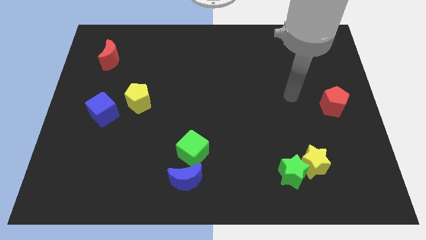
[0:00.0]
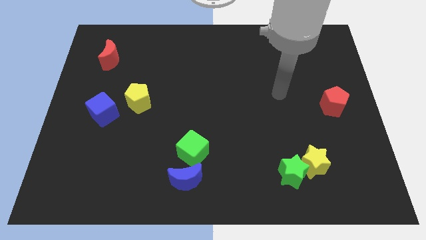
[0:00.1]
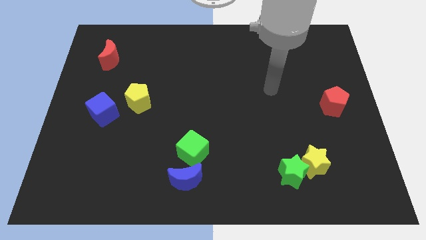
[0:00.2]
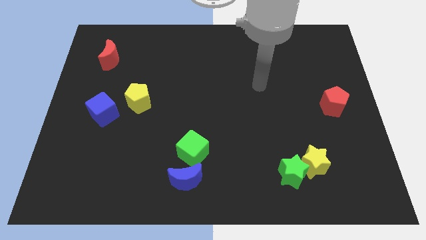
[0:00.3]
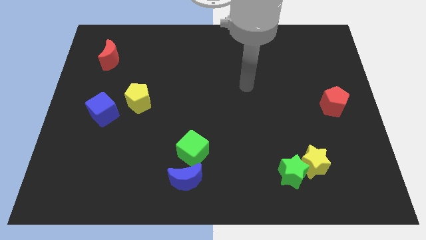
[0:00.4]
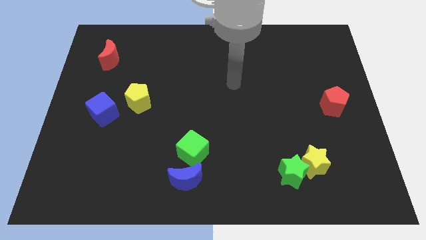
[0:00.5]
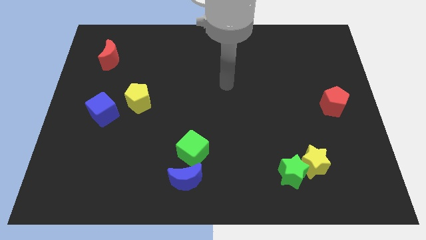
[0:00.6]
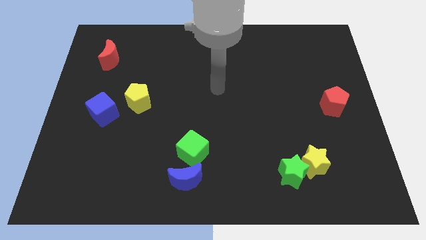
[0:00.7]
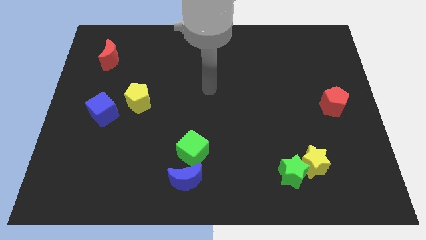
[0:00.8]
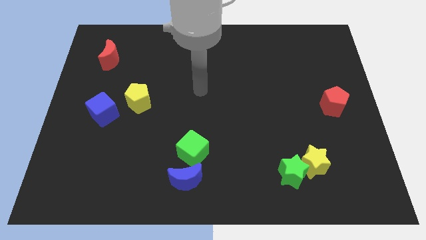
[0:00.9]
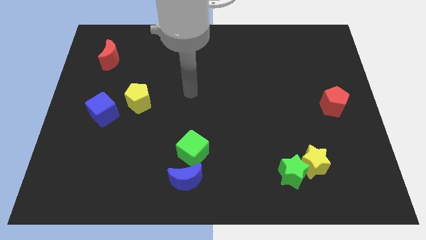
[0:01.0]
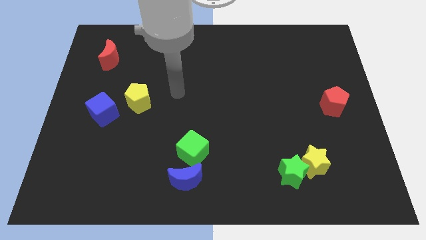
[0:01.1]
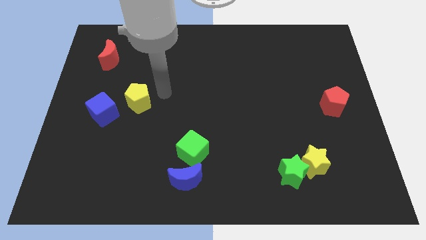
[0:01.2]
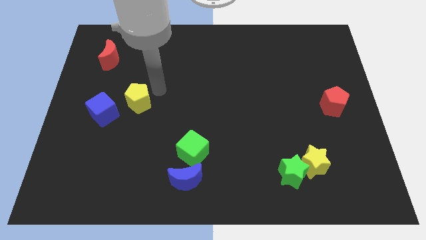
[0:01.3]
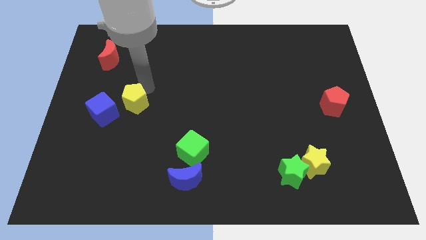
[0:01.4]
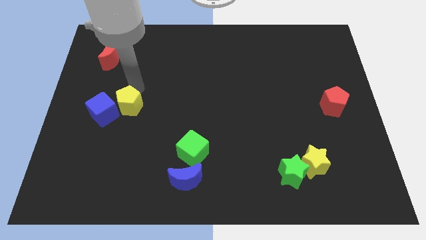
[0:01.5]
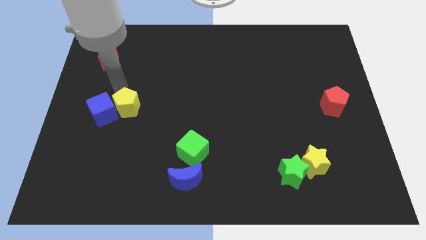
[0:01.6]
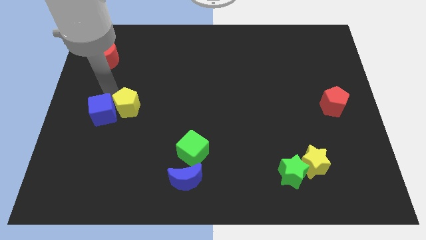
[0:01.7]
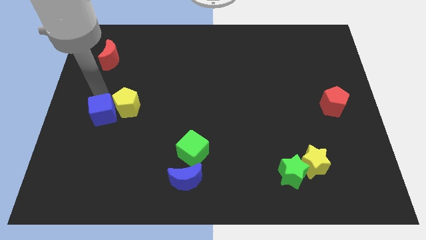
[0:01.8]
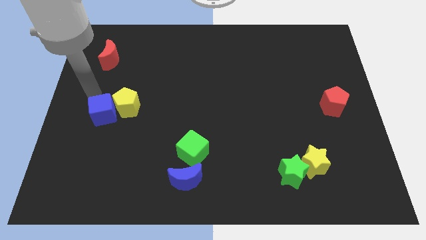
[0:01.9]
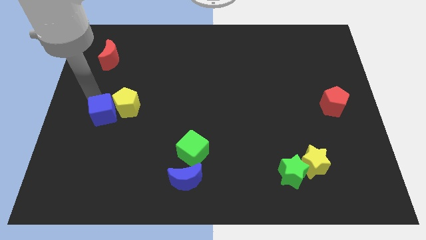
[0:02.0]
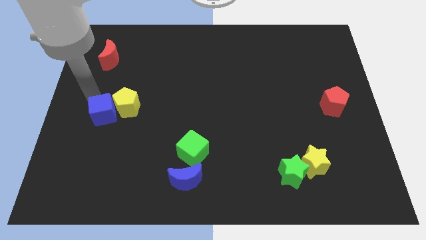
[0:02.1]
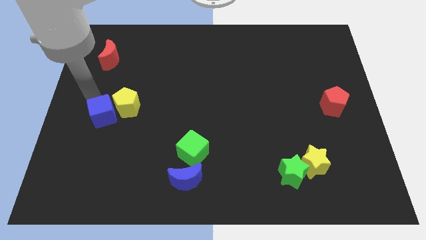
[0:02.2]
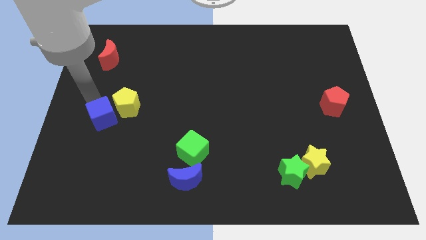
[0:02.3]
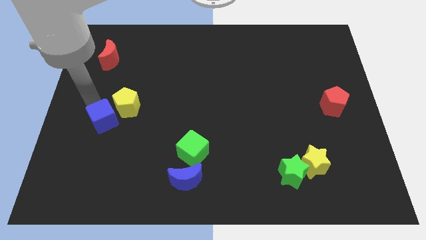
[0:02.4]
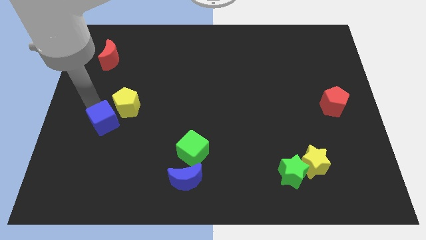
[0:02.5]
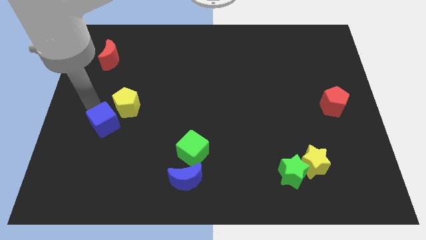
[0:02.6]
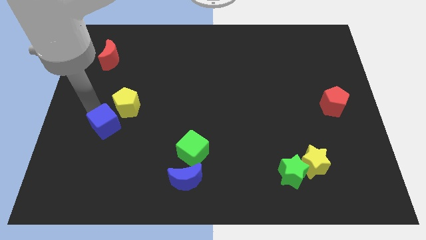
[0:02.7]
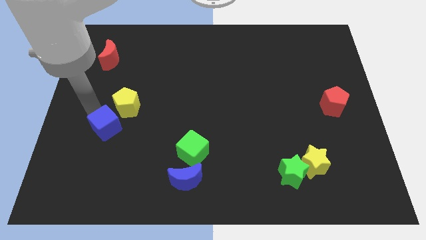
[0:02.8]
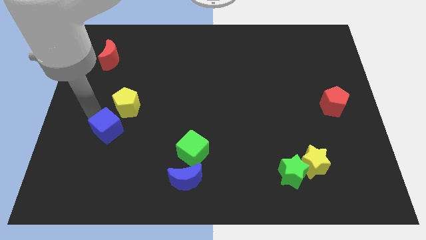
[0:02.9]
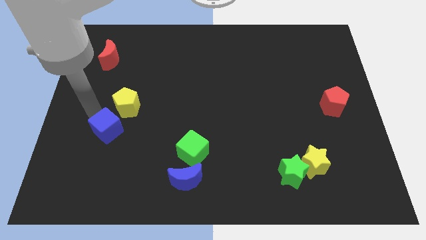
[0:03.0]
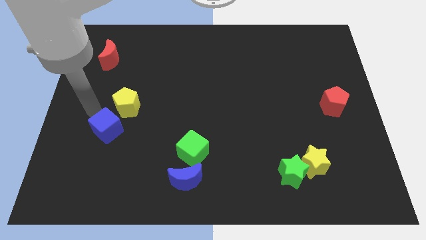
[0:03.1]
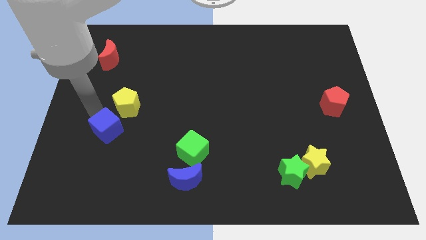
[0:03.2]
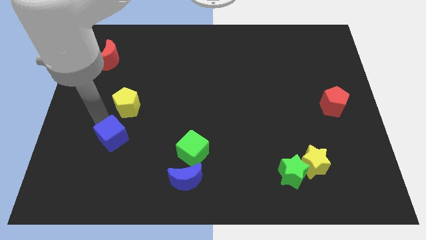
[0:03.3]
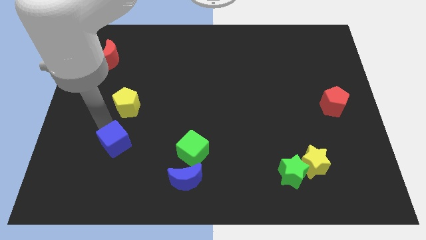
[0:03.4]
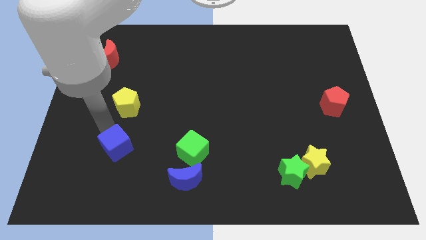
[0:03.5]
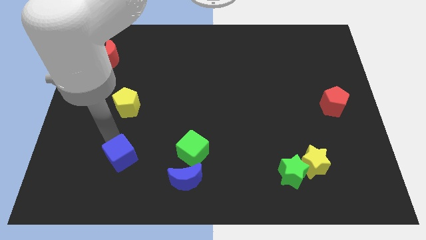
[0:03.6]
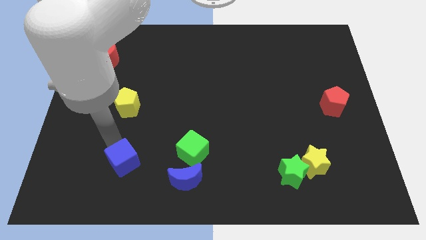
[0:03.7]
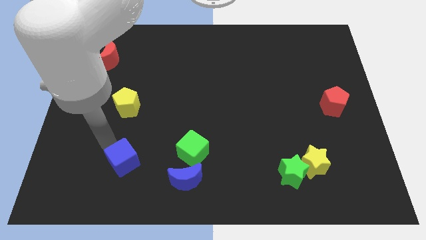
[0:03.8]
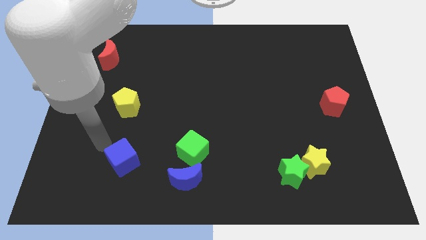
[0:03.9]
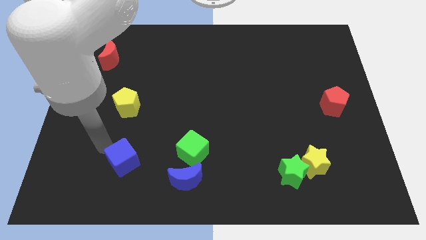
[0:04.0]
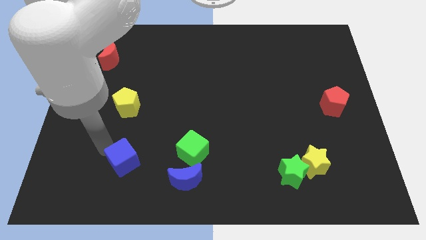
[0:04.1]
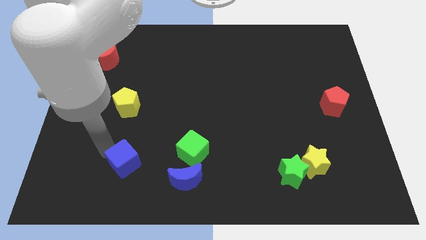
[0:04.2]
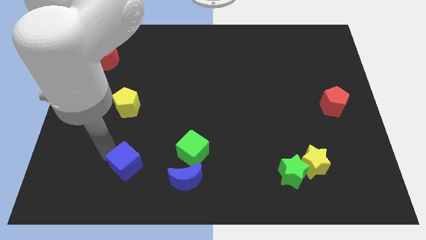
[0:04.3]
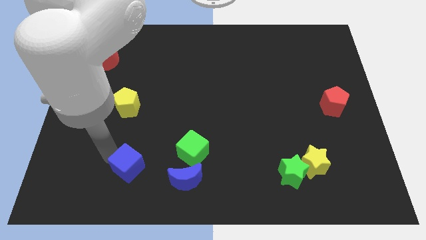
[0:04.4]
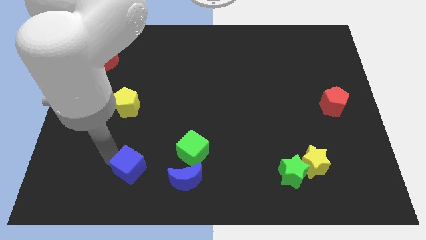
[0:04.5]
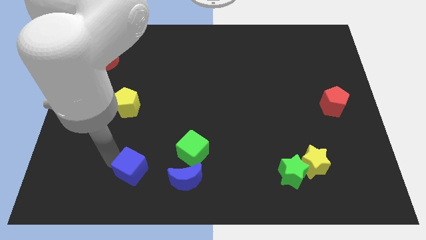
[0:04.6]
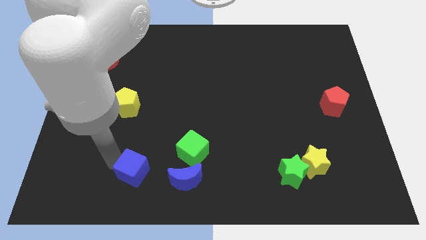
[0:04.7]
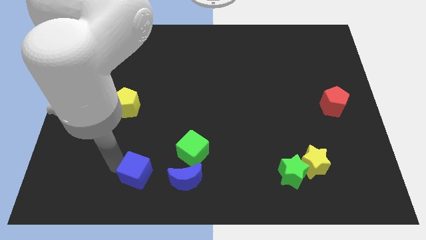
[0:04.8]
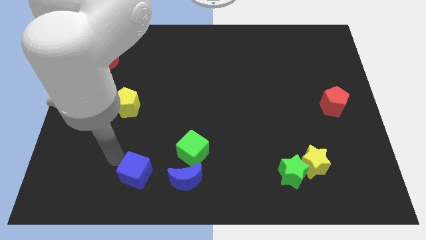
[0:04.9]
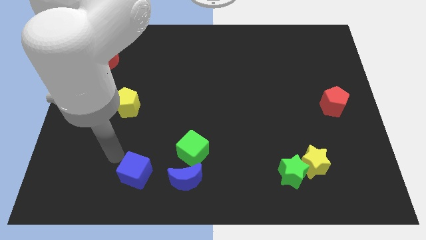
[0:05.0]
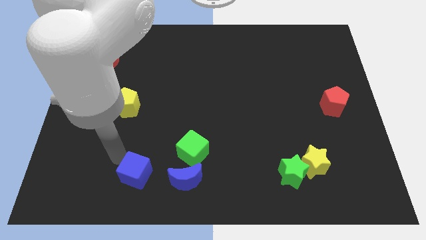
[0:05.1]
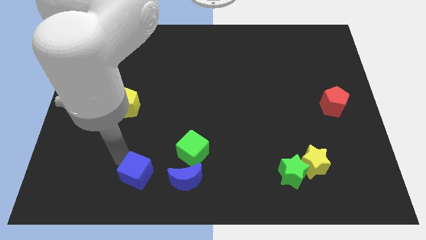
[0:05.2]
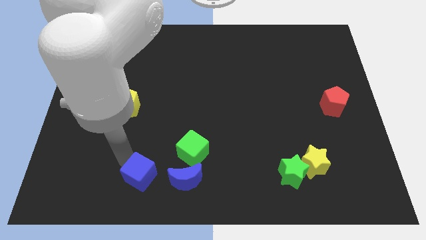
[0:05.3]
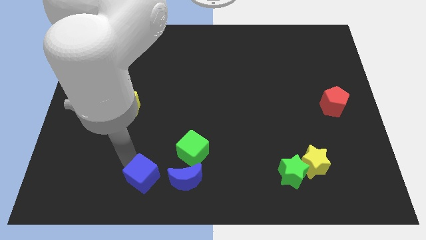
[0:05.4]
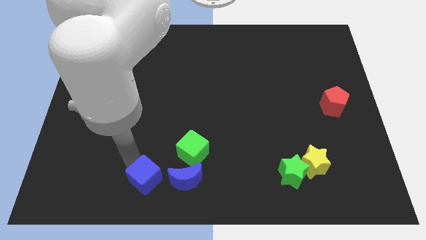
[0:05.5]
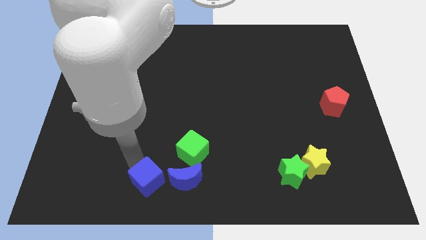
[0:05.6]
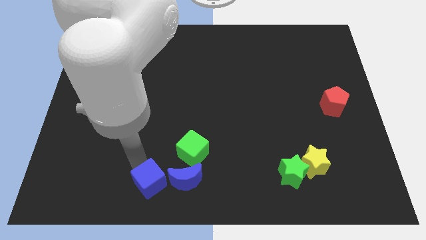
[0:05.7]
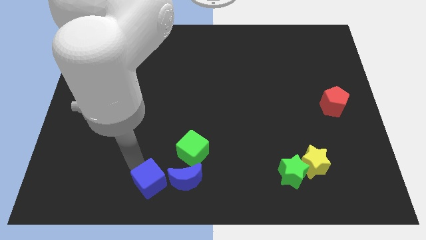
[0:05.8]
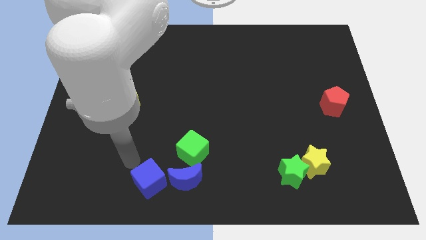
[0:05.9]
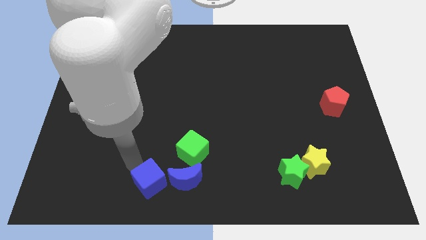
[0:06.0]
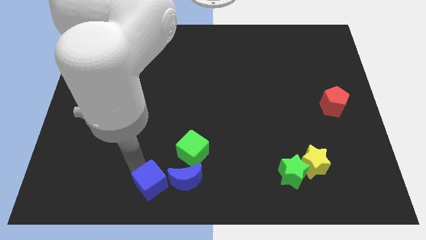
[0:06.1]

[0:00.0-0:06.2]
move the blue cube to the bottom
